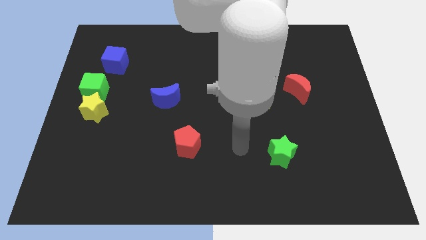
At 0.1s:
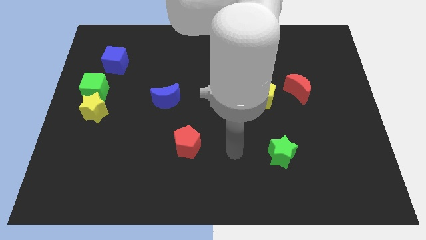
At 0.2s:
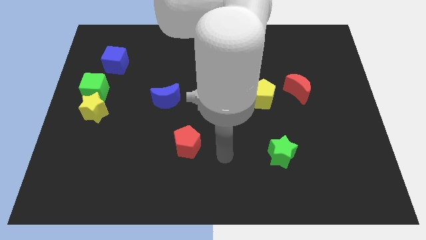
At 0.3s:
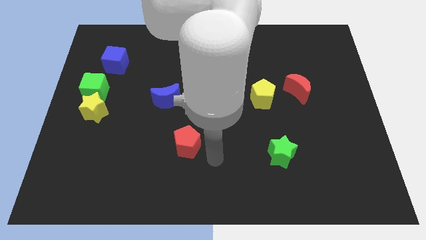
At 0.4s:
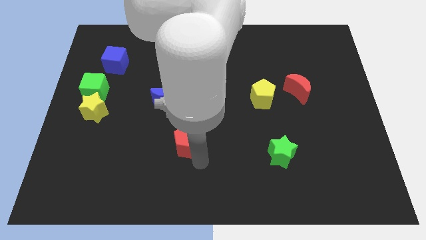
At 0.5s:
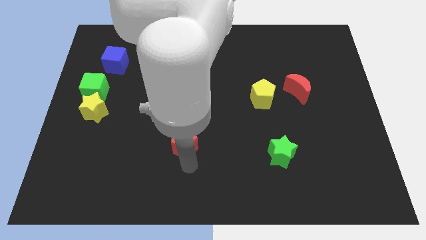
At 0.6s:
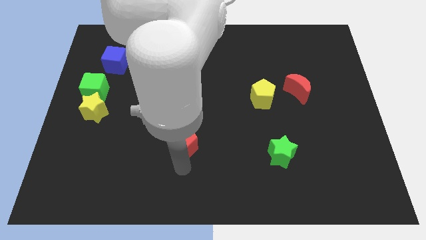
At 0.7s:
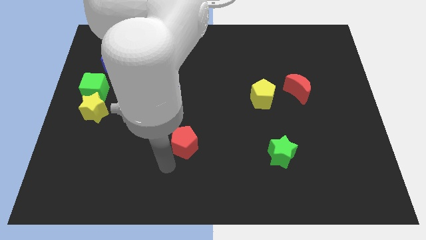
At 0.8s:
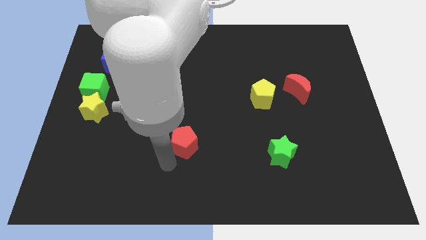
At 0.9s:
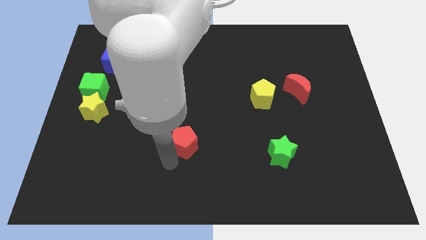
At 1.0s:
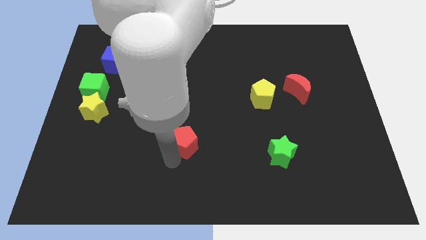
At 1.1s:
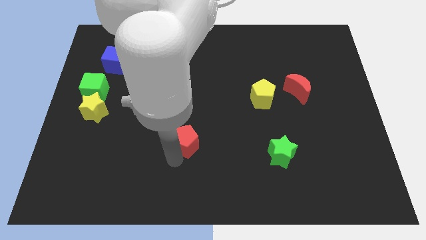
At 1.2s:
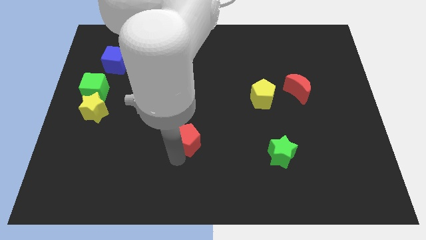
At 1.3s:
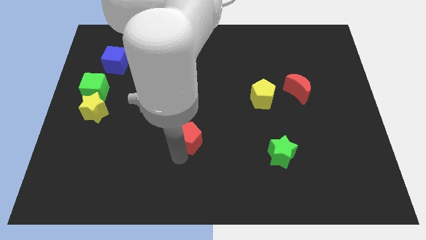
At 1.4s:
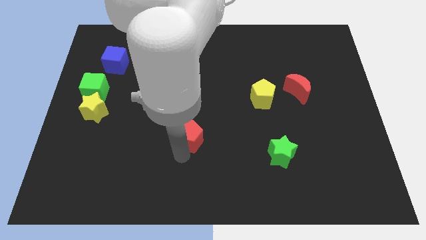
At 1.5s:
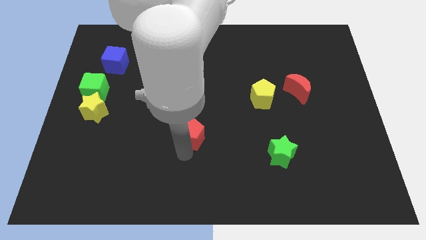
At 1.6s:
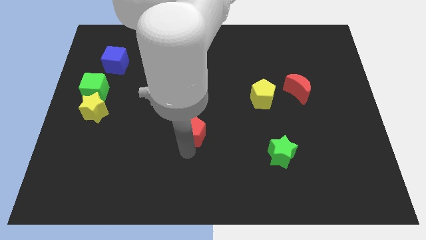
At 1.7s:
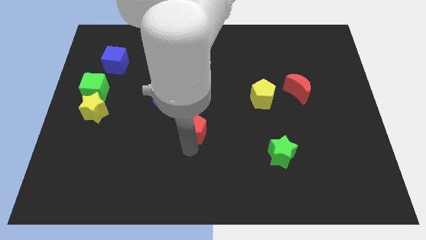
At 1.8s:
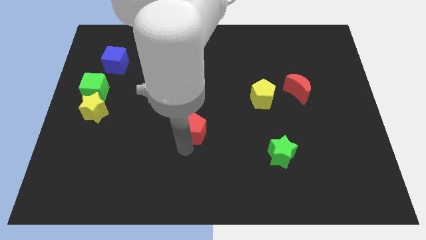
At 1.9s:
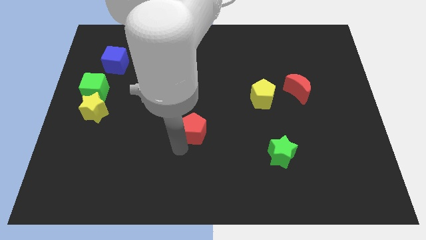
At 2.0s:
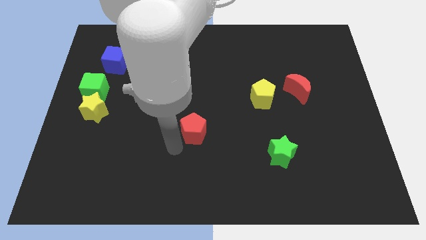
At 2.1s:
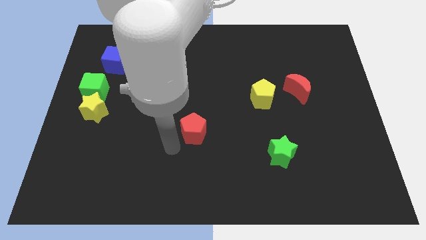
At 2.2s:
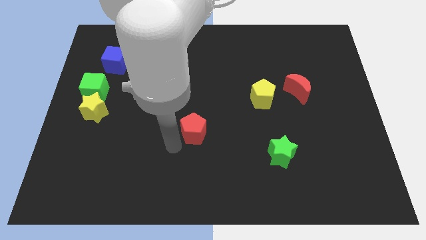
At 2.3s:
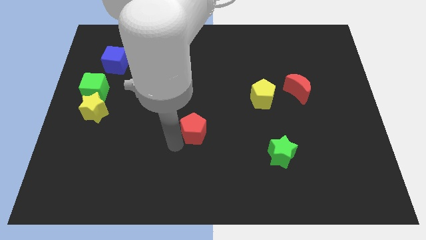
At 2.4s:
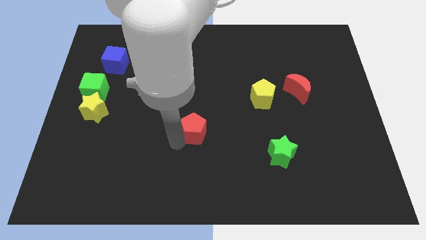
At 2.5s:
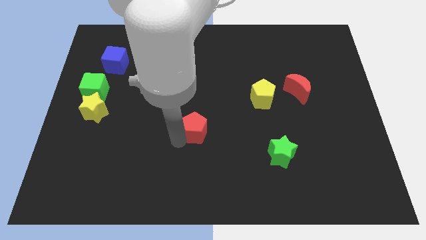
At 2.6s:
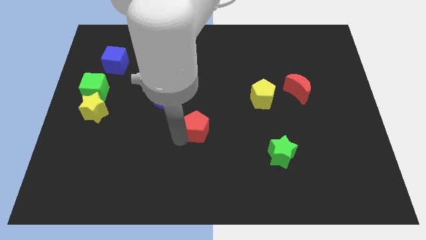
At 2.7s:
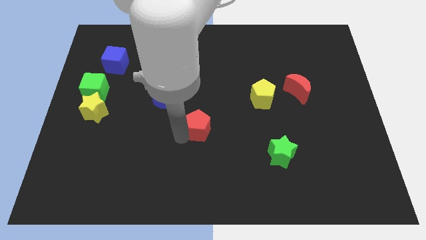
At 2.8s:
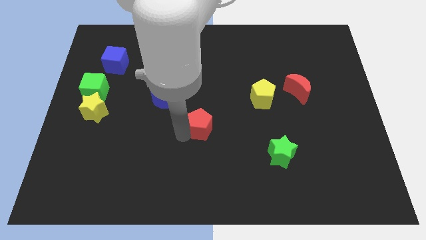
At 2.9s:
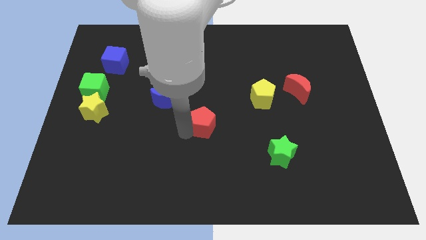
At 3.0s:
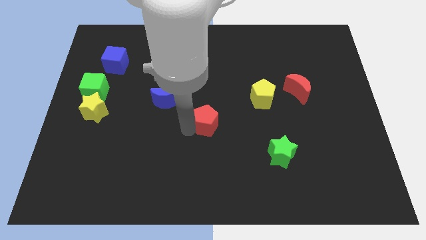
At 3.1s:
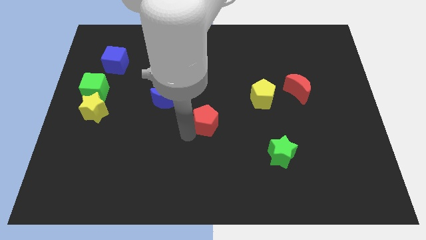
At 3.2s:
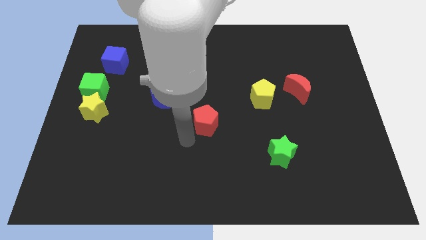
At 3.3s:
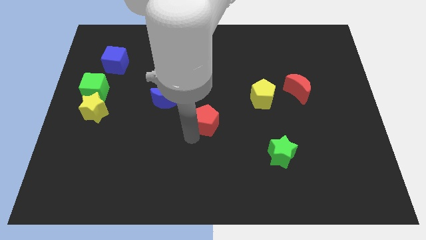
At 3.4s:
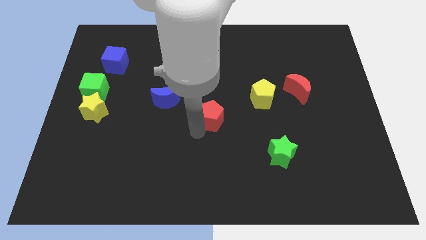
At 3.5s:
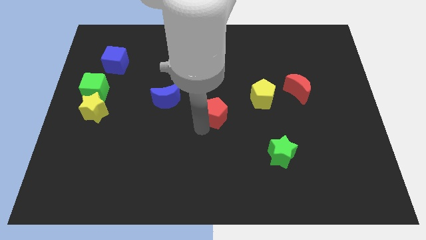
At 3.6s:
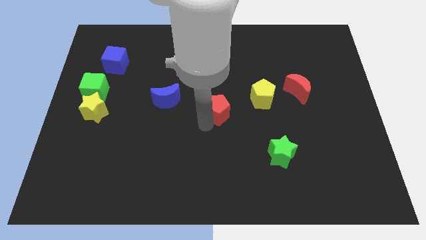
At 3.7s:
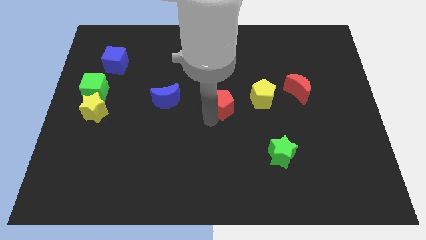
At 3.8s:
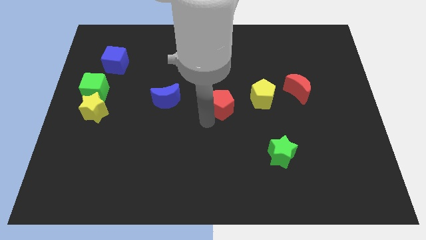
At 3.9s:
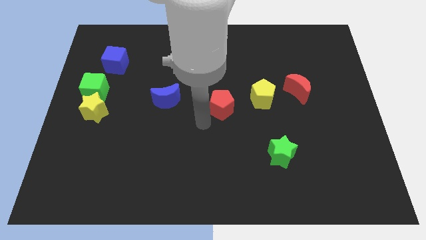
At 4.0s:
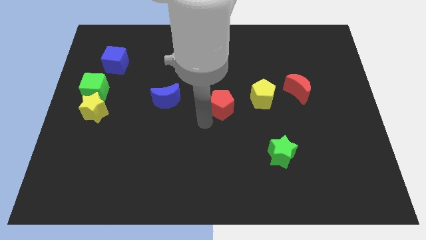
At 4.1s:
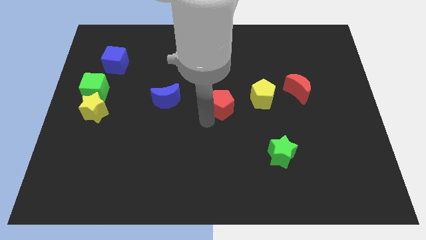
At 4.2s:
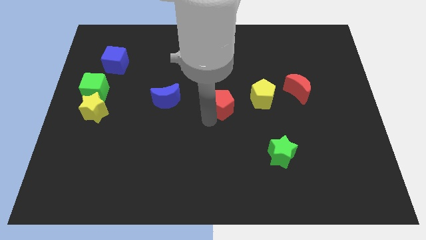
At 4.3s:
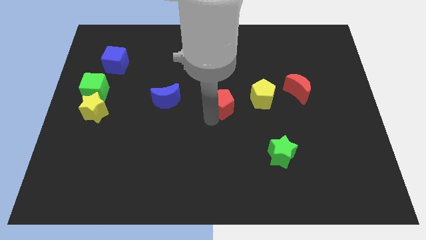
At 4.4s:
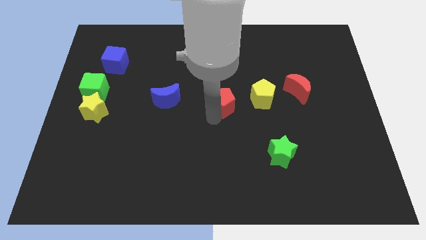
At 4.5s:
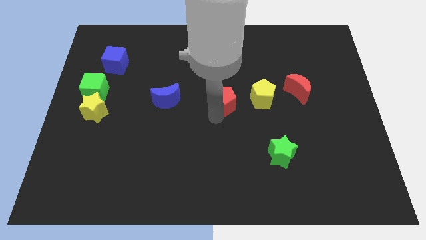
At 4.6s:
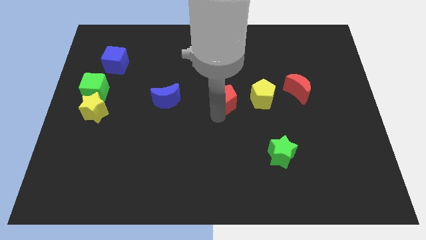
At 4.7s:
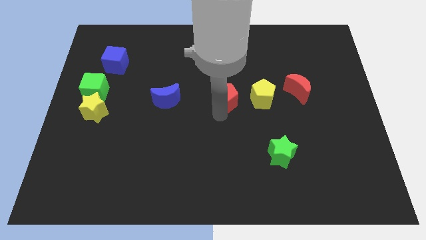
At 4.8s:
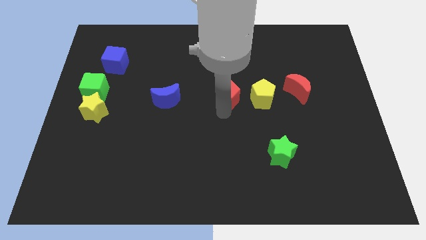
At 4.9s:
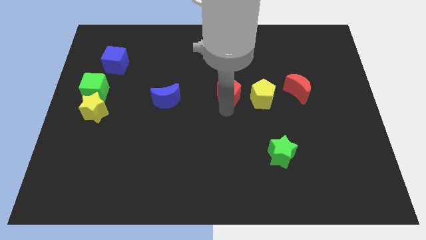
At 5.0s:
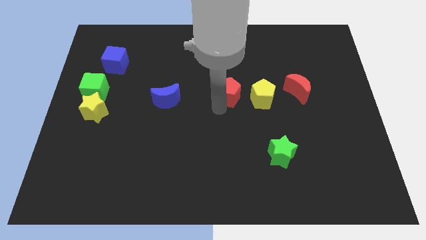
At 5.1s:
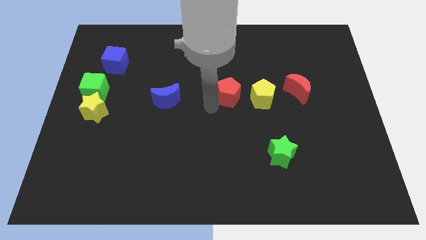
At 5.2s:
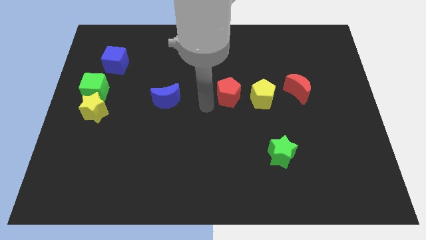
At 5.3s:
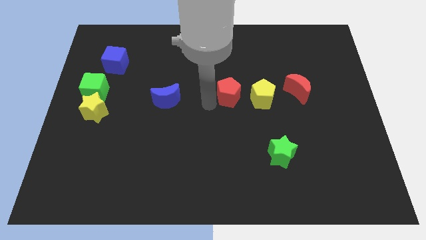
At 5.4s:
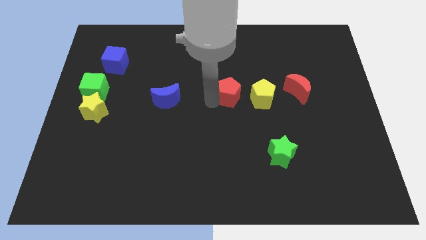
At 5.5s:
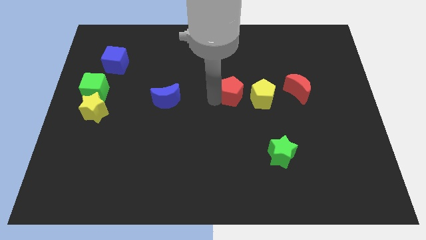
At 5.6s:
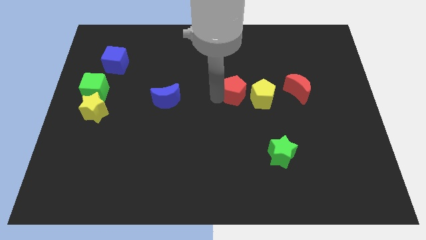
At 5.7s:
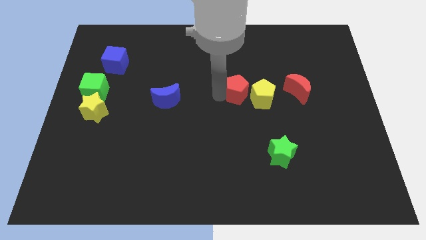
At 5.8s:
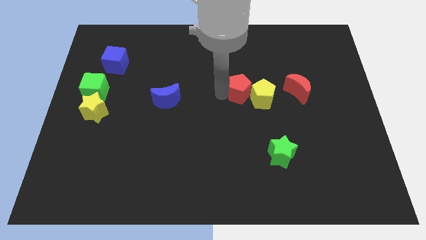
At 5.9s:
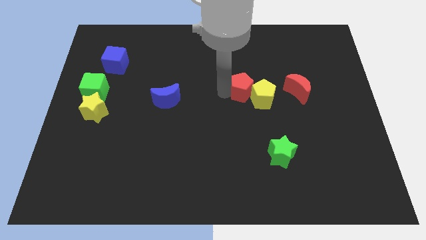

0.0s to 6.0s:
push the red pentagon diagonally upwards and right

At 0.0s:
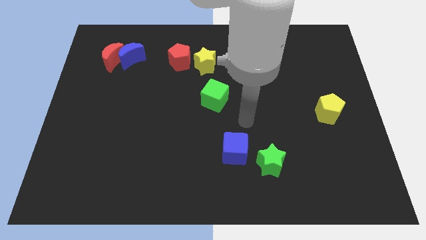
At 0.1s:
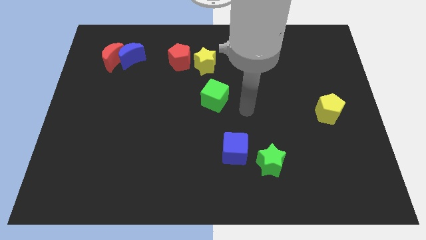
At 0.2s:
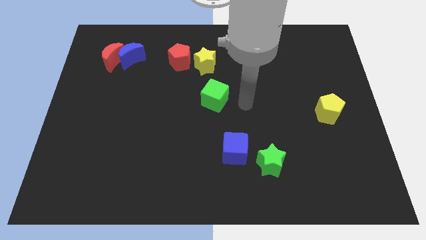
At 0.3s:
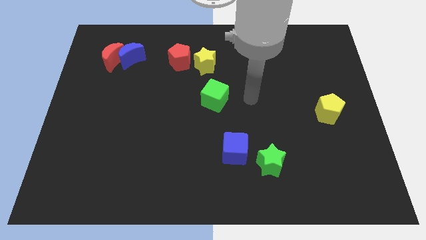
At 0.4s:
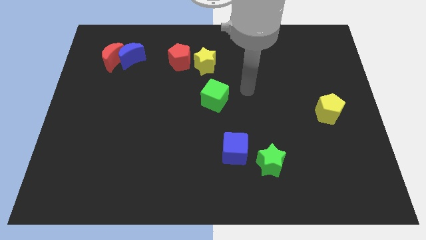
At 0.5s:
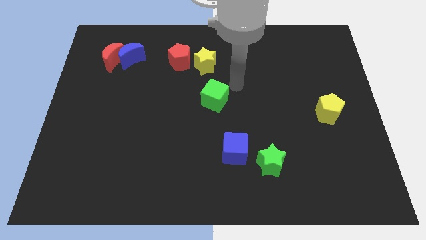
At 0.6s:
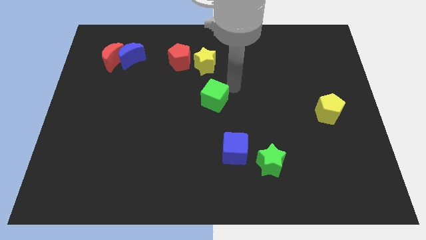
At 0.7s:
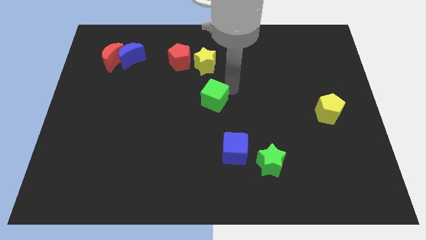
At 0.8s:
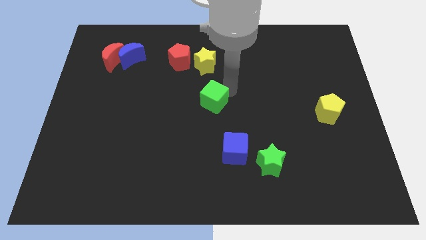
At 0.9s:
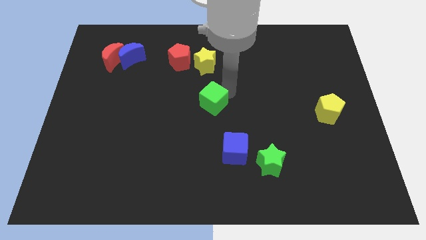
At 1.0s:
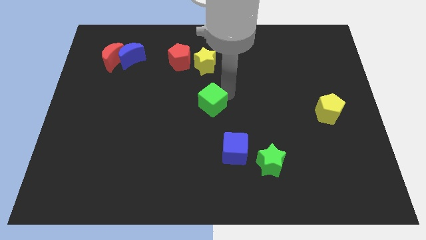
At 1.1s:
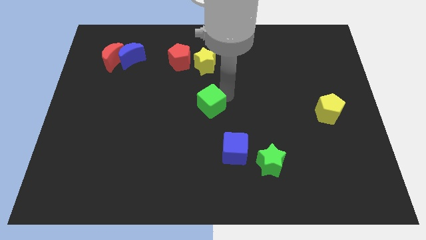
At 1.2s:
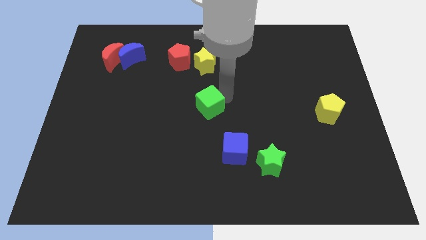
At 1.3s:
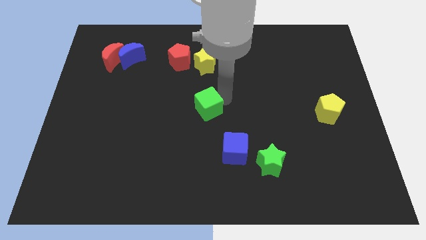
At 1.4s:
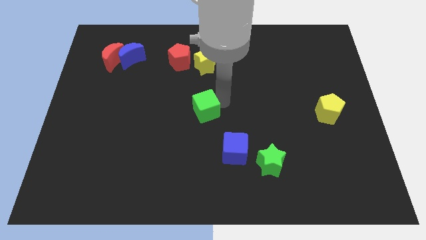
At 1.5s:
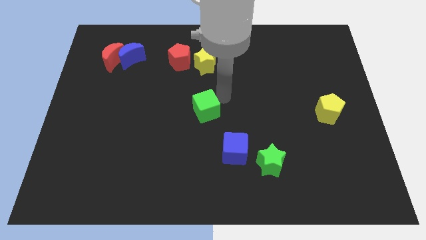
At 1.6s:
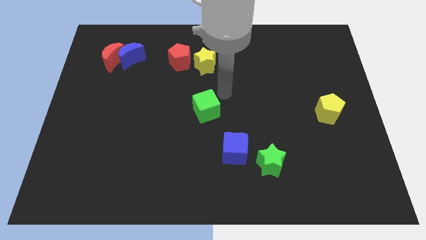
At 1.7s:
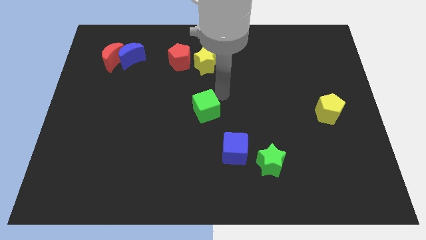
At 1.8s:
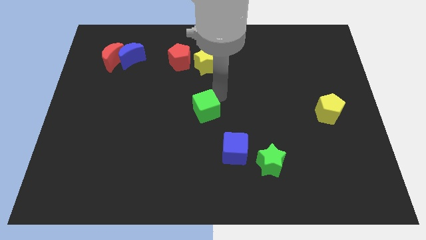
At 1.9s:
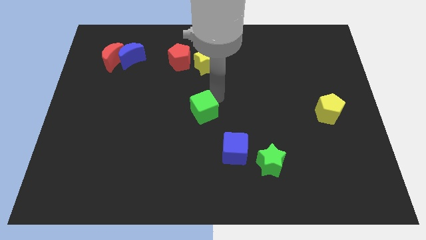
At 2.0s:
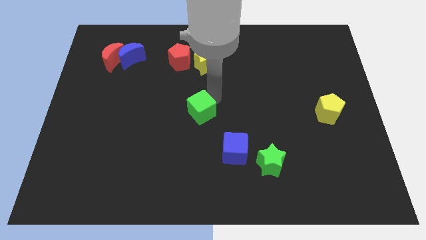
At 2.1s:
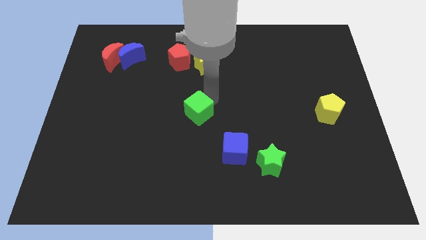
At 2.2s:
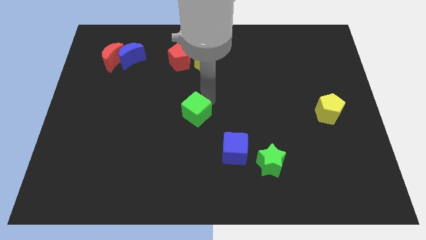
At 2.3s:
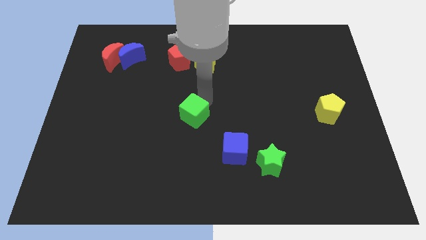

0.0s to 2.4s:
slightly push the green cube downwards and left diagonally
